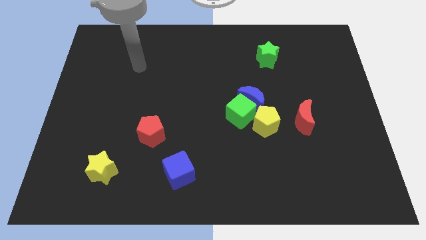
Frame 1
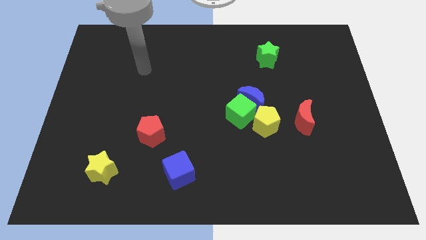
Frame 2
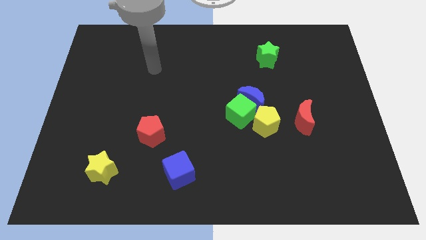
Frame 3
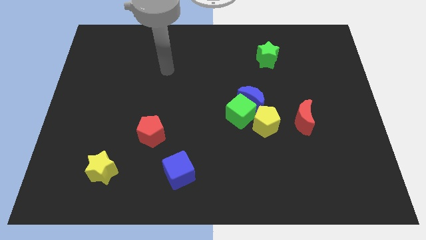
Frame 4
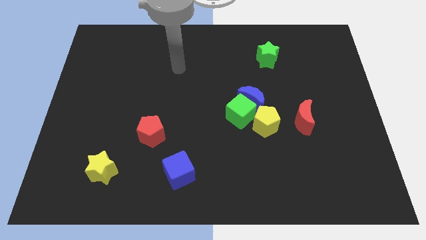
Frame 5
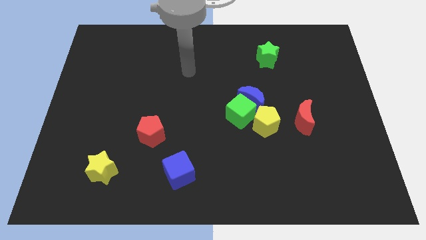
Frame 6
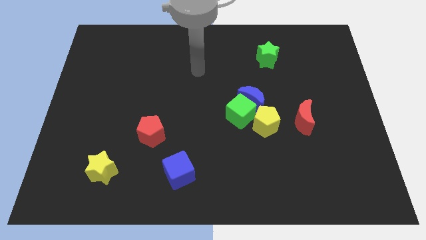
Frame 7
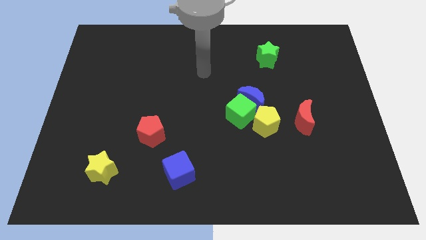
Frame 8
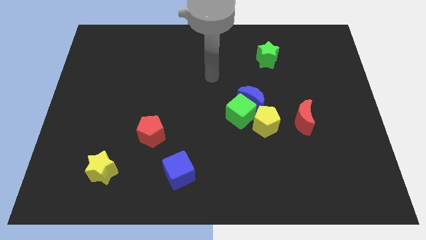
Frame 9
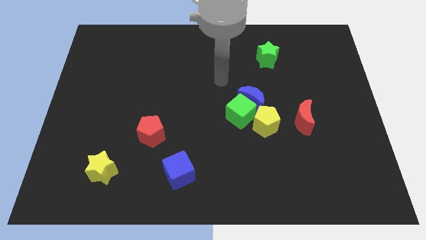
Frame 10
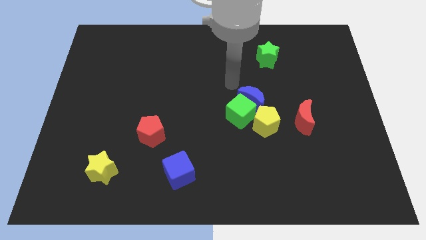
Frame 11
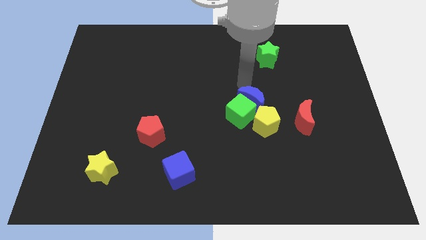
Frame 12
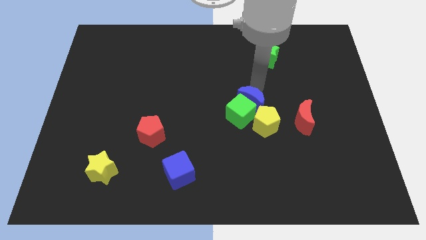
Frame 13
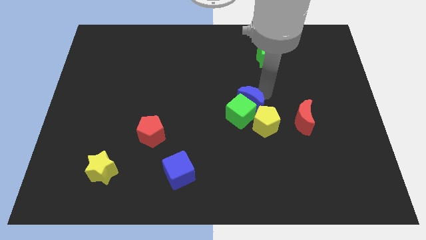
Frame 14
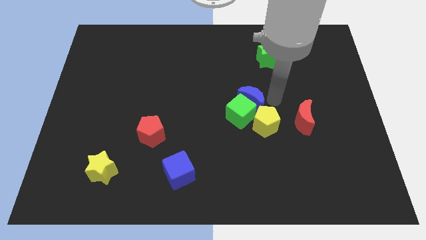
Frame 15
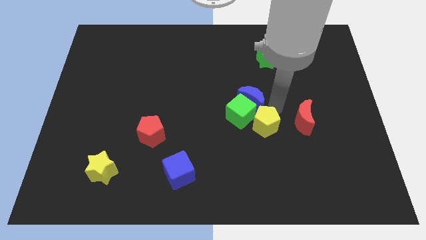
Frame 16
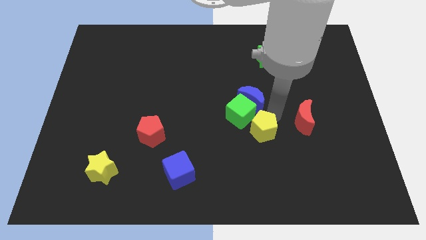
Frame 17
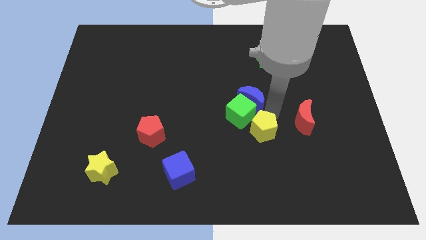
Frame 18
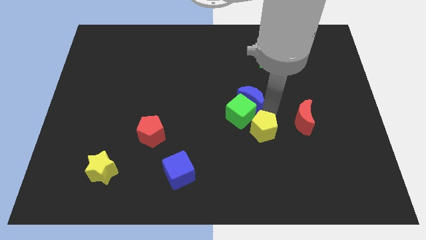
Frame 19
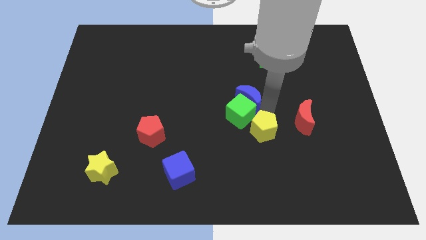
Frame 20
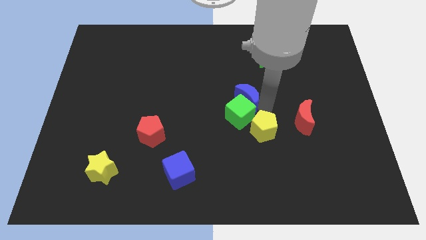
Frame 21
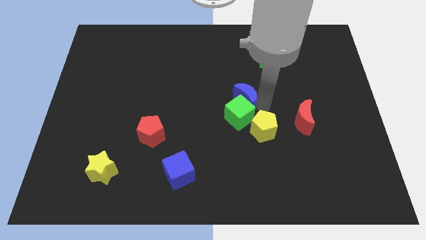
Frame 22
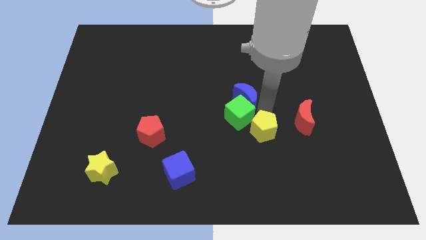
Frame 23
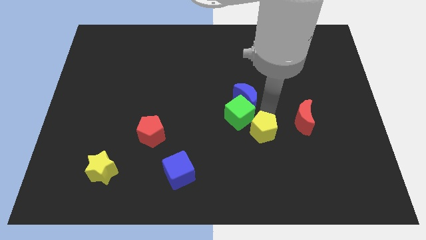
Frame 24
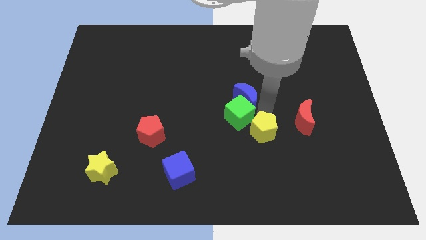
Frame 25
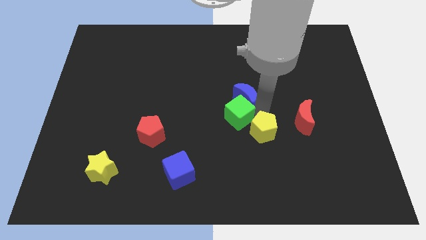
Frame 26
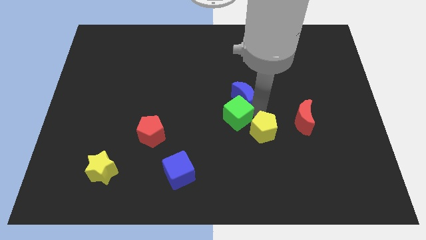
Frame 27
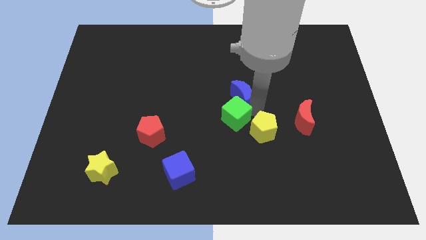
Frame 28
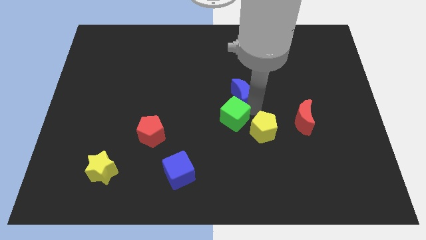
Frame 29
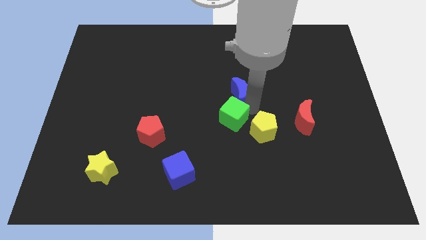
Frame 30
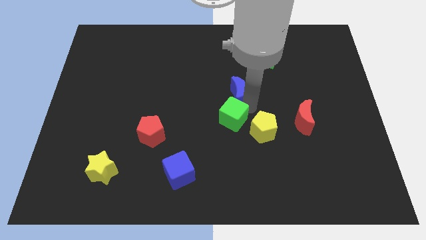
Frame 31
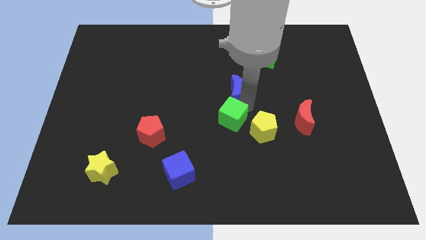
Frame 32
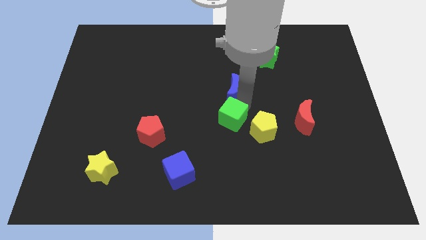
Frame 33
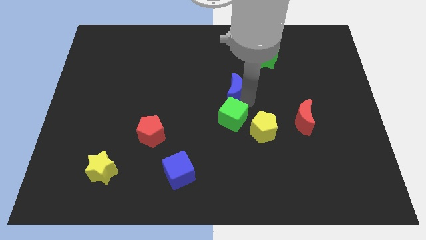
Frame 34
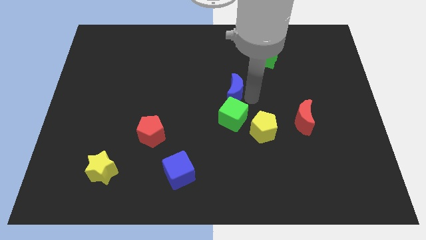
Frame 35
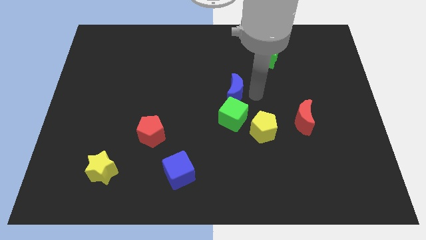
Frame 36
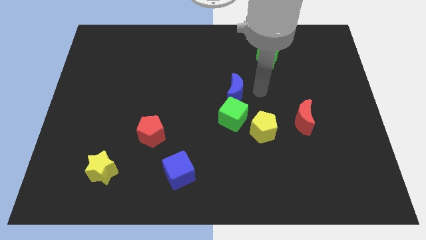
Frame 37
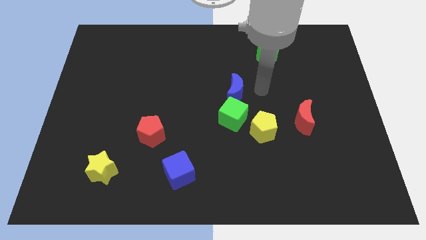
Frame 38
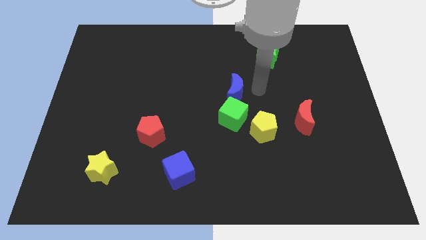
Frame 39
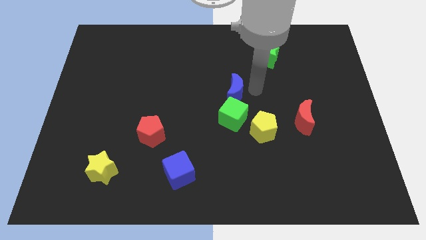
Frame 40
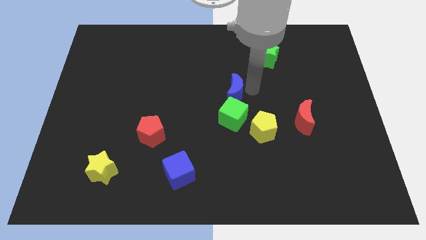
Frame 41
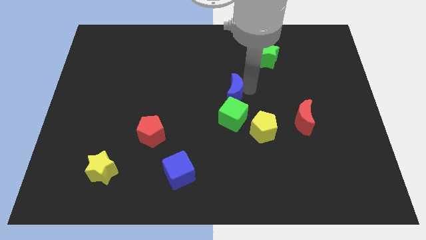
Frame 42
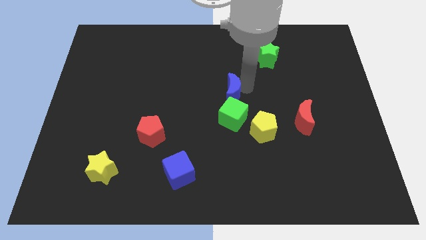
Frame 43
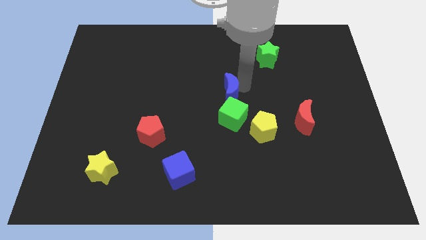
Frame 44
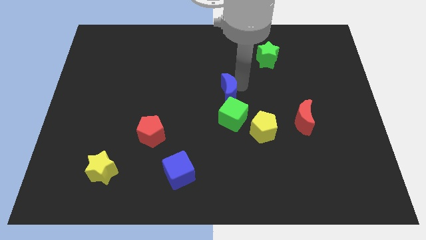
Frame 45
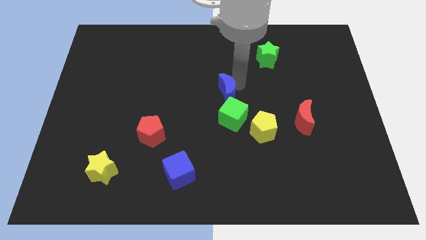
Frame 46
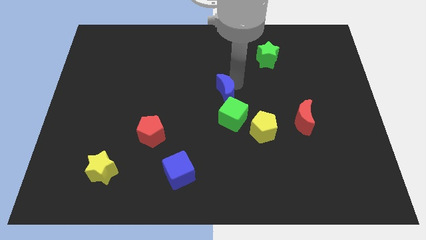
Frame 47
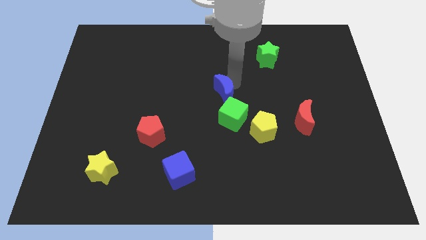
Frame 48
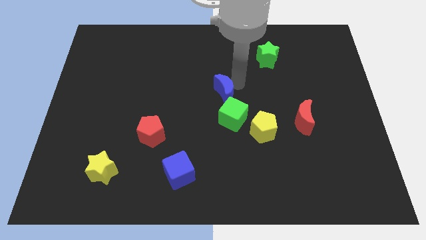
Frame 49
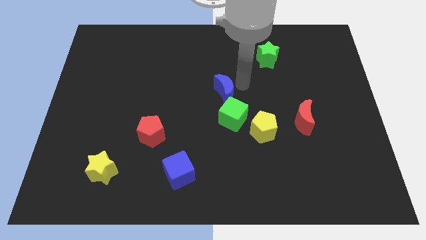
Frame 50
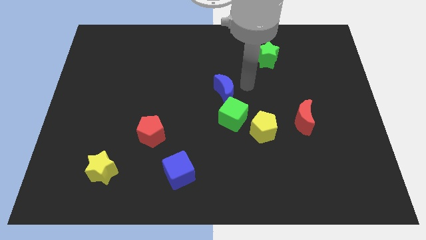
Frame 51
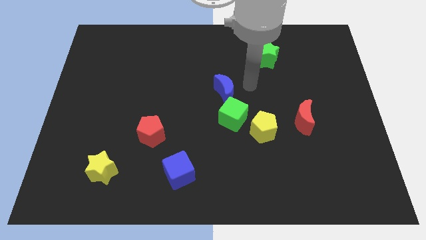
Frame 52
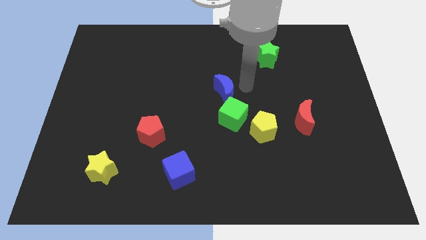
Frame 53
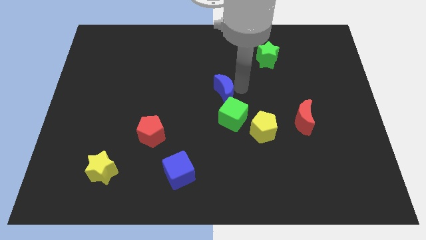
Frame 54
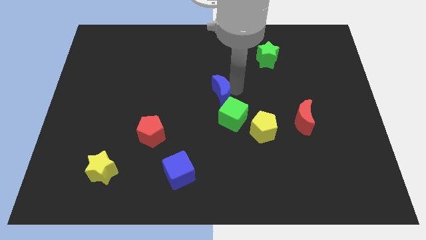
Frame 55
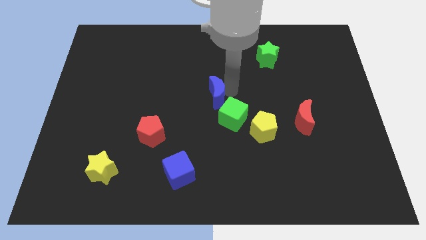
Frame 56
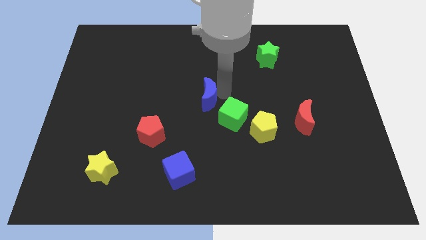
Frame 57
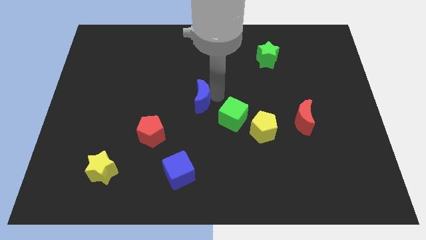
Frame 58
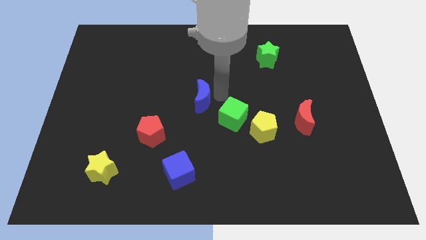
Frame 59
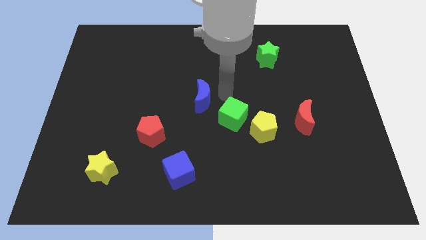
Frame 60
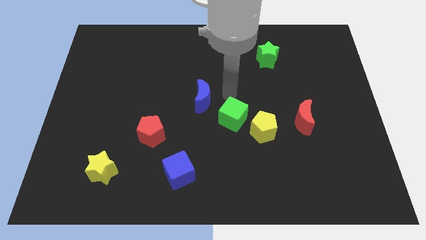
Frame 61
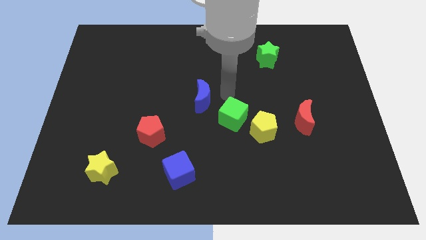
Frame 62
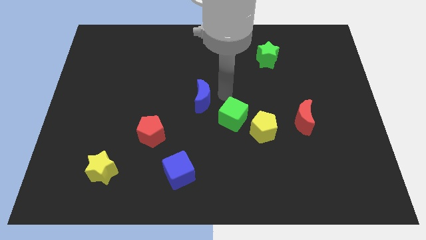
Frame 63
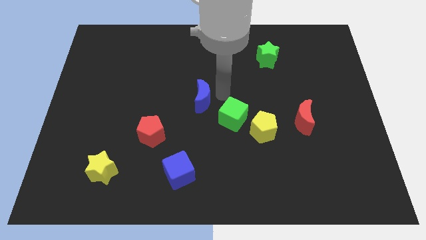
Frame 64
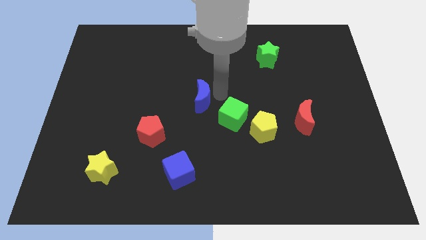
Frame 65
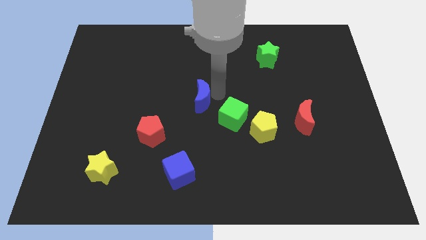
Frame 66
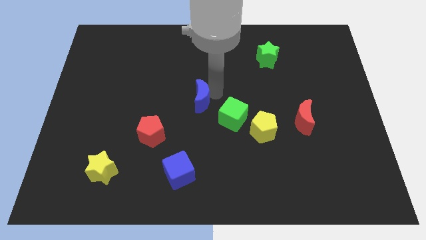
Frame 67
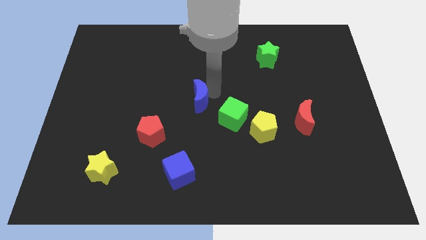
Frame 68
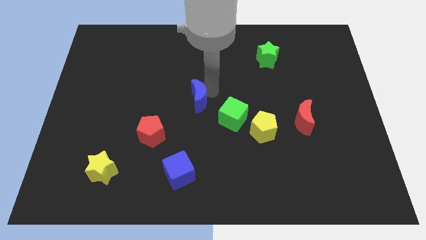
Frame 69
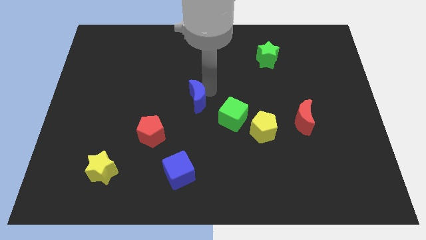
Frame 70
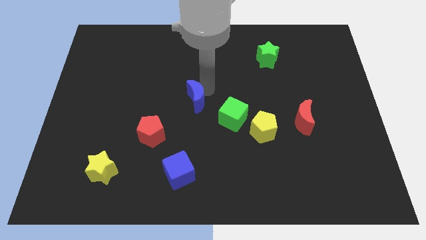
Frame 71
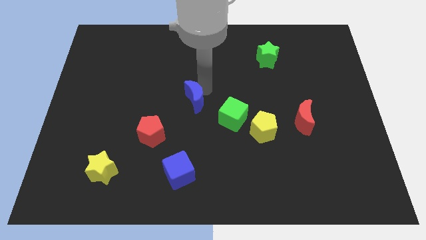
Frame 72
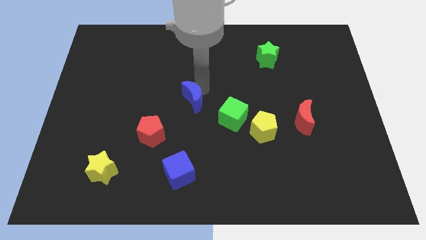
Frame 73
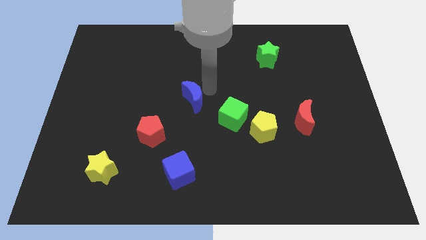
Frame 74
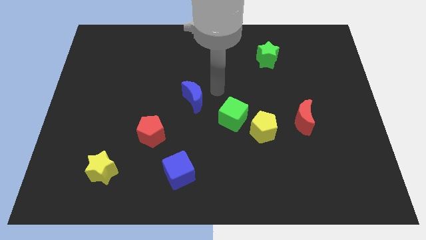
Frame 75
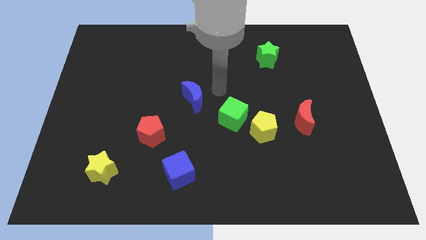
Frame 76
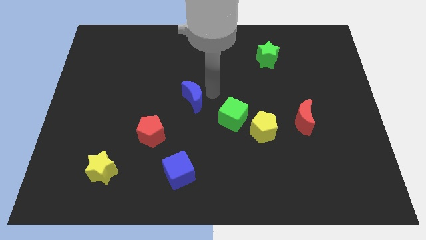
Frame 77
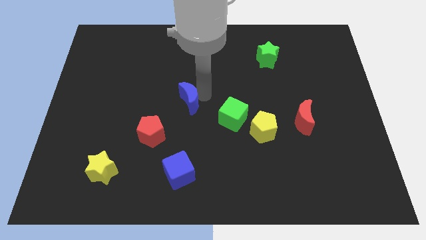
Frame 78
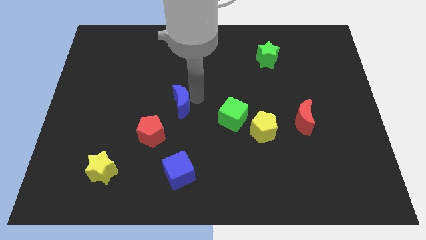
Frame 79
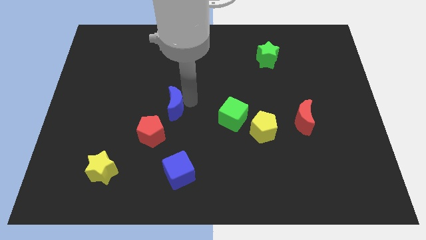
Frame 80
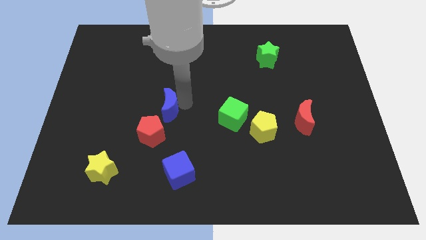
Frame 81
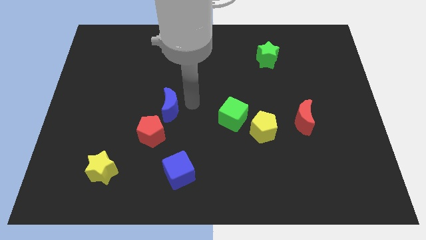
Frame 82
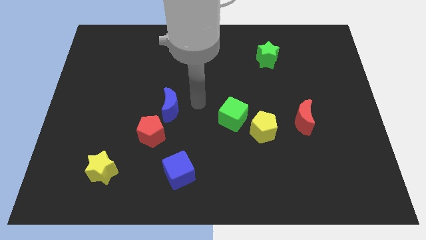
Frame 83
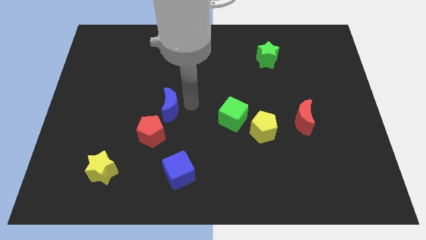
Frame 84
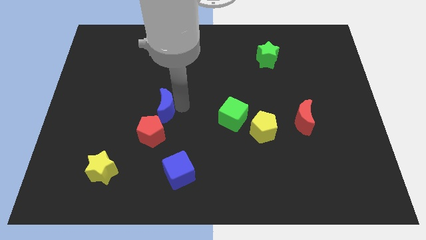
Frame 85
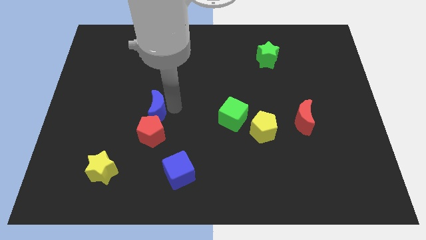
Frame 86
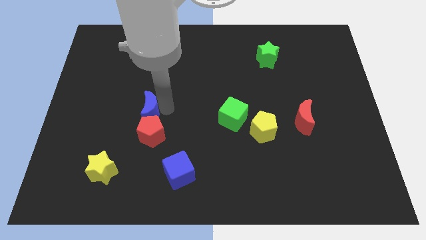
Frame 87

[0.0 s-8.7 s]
slide the blue moon diagonally up and to the left of the red pentagon
